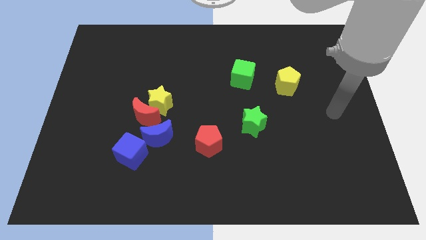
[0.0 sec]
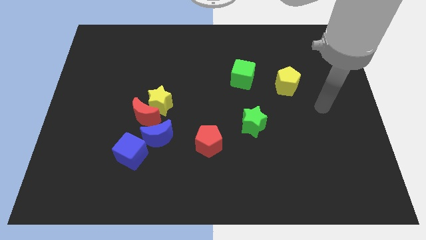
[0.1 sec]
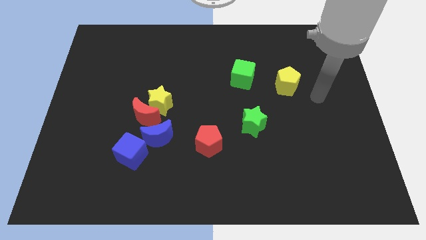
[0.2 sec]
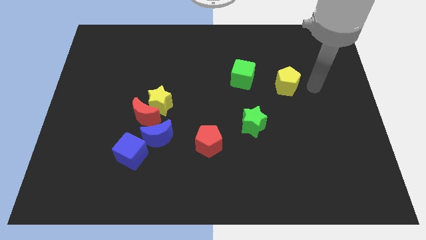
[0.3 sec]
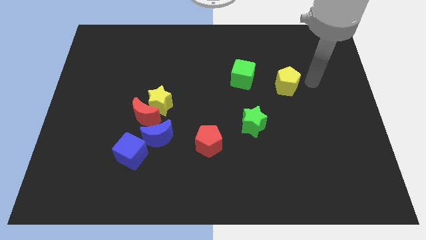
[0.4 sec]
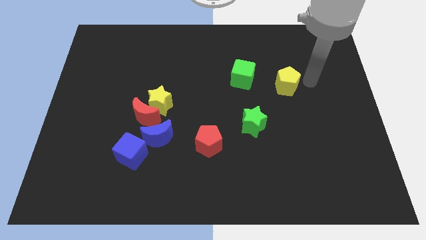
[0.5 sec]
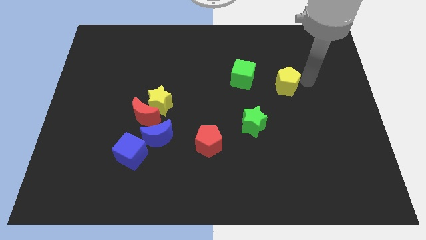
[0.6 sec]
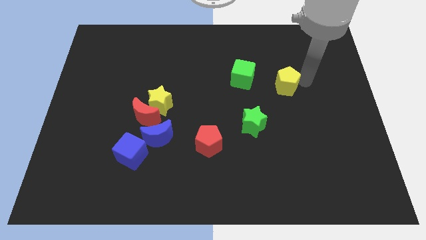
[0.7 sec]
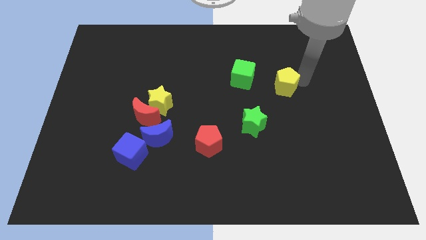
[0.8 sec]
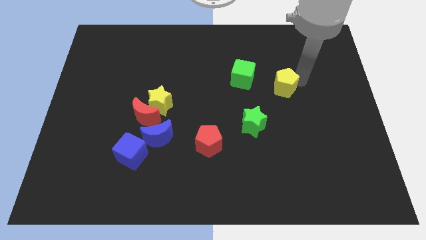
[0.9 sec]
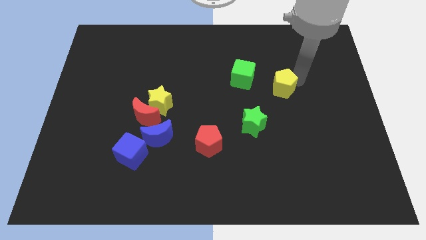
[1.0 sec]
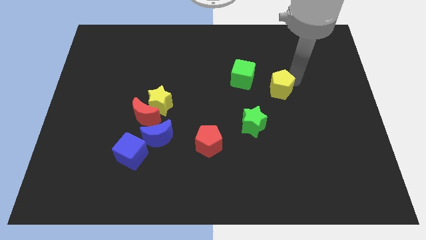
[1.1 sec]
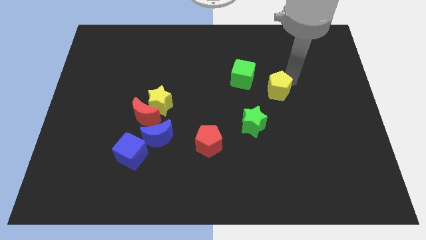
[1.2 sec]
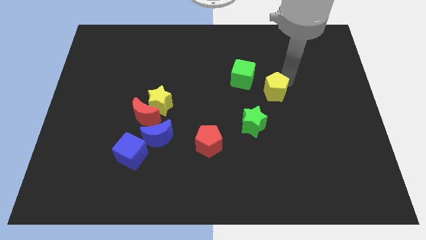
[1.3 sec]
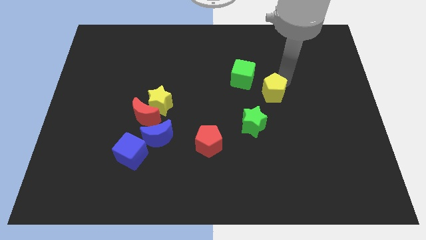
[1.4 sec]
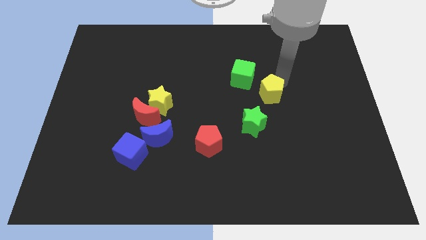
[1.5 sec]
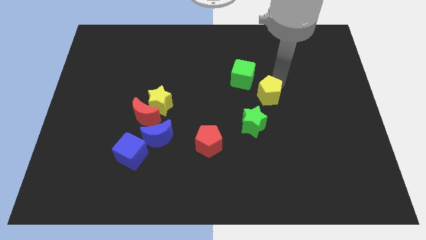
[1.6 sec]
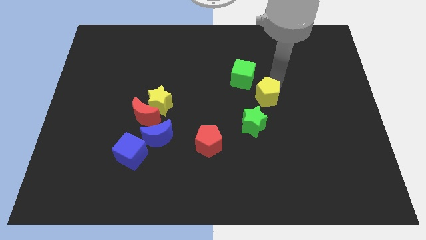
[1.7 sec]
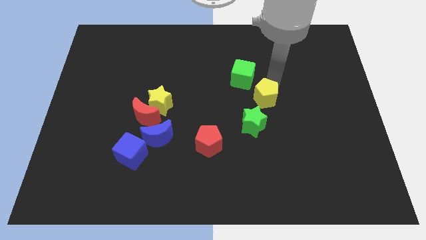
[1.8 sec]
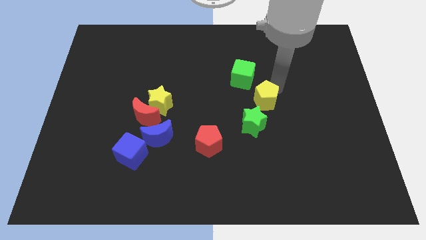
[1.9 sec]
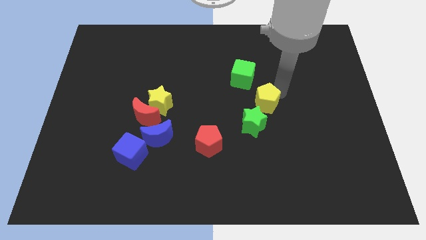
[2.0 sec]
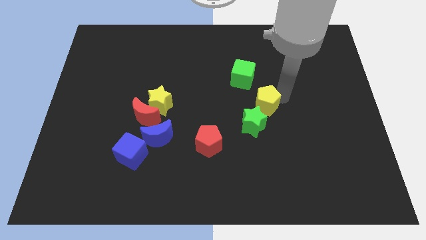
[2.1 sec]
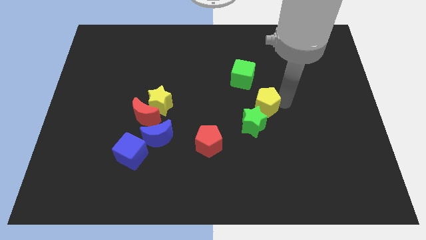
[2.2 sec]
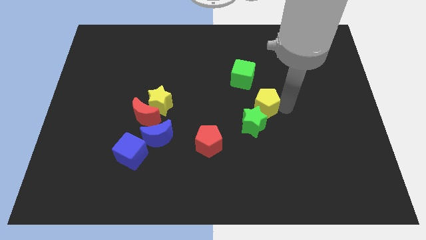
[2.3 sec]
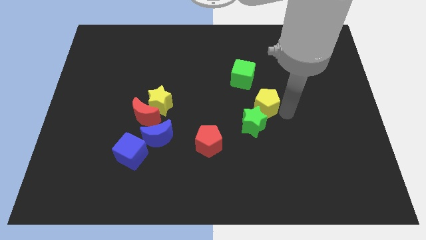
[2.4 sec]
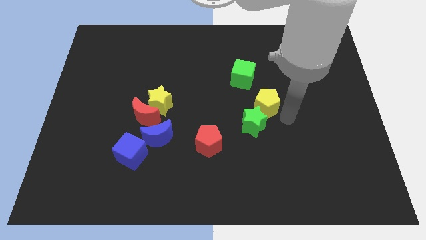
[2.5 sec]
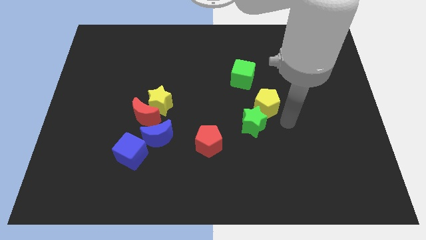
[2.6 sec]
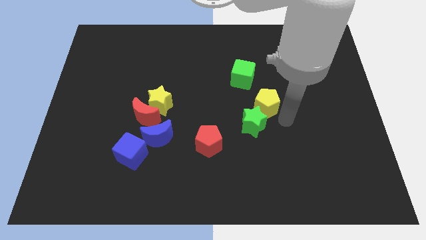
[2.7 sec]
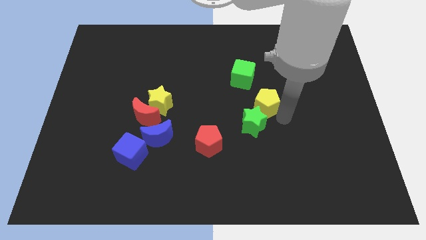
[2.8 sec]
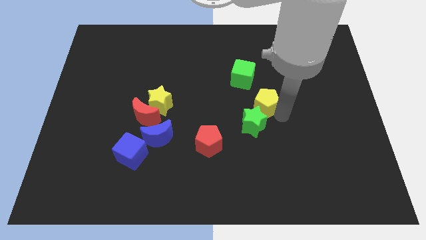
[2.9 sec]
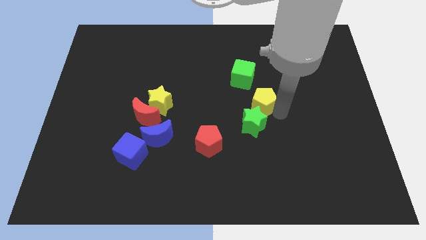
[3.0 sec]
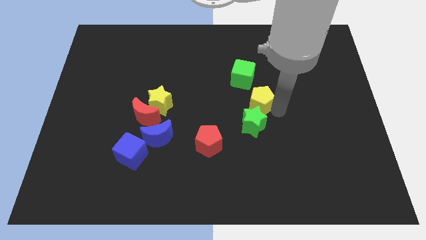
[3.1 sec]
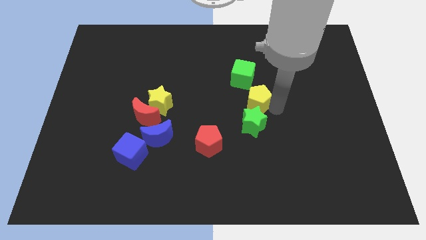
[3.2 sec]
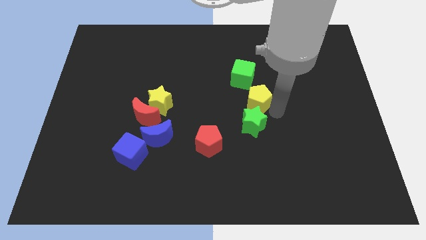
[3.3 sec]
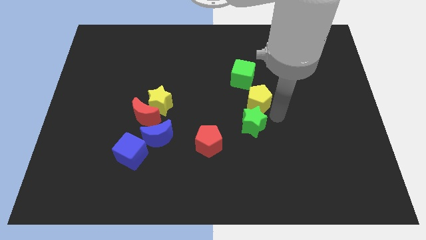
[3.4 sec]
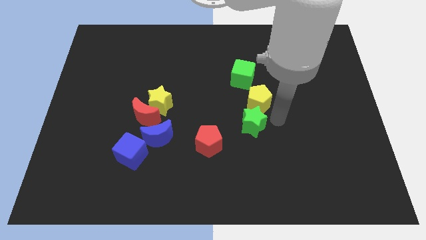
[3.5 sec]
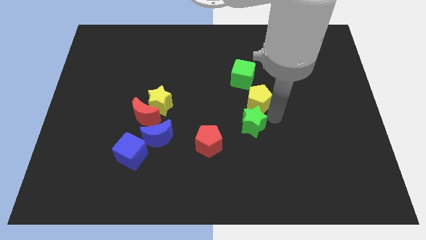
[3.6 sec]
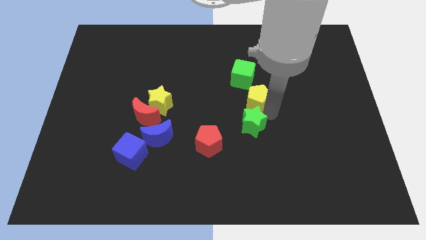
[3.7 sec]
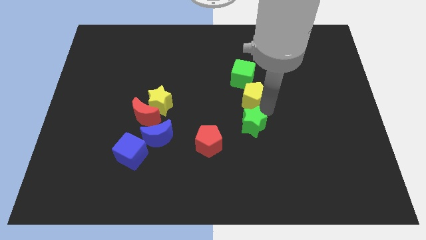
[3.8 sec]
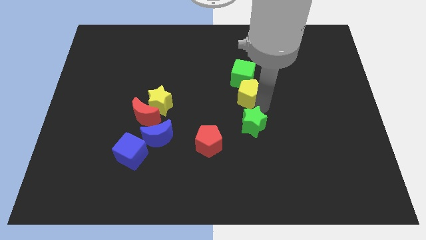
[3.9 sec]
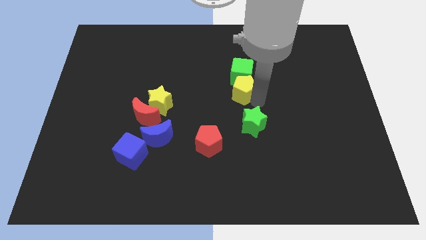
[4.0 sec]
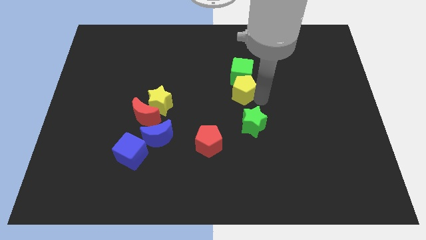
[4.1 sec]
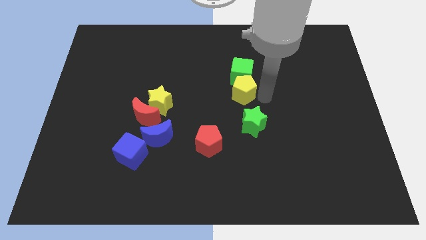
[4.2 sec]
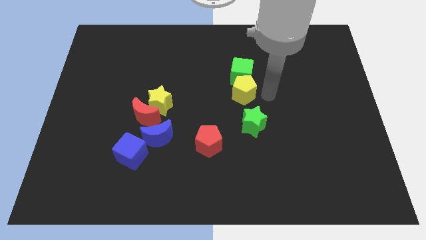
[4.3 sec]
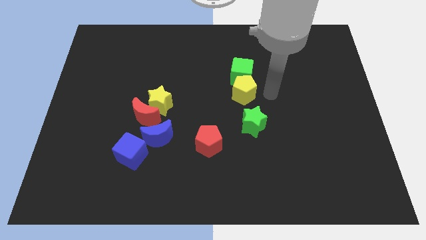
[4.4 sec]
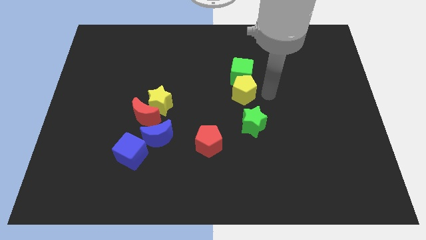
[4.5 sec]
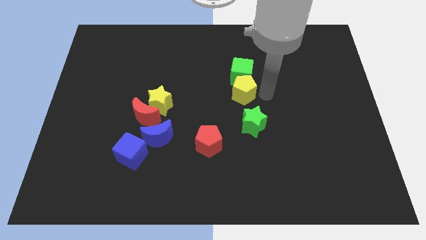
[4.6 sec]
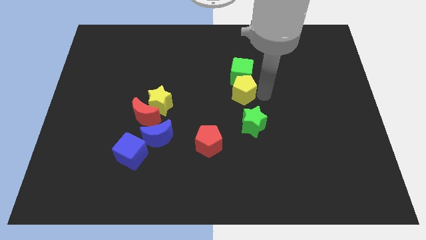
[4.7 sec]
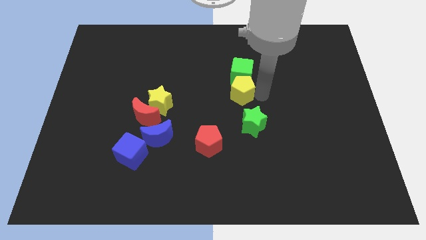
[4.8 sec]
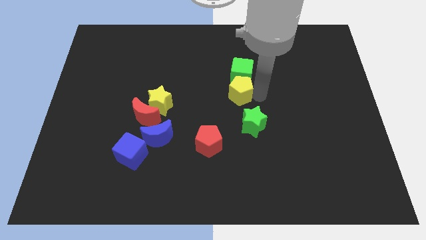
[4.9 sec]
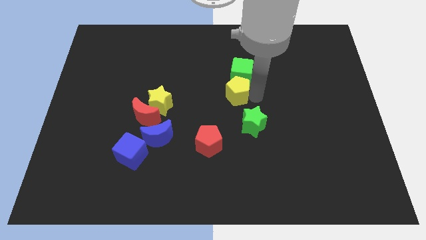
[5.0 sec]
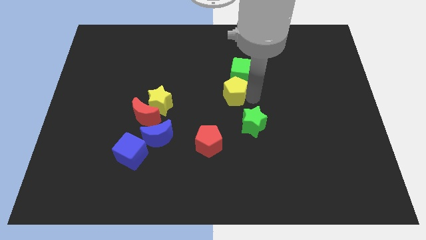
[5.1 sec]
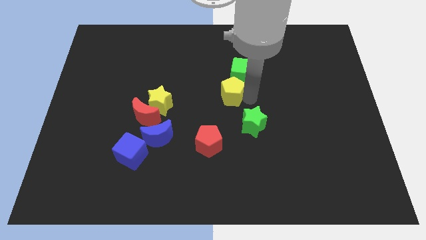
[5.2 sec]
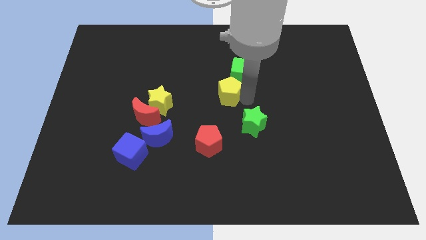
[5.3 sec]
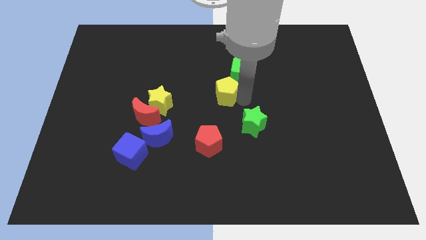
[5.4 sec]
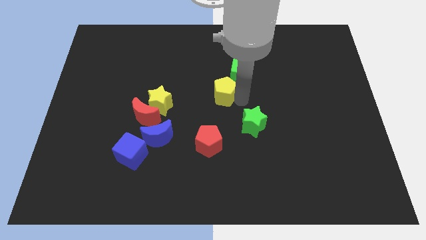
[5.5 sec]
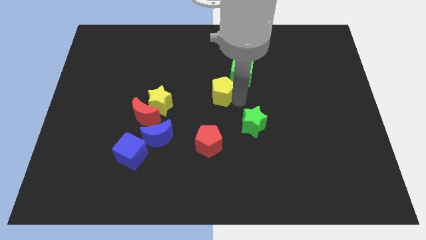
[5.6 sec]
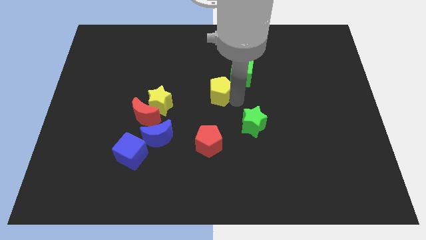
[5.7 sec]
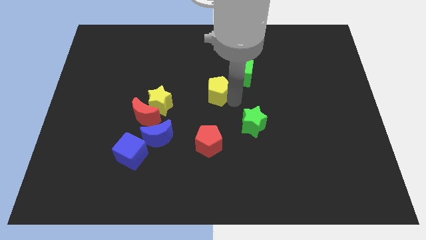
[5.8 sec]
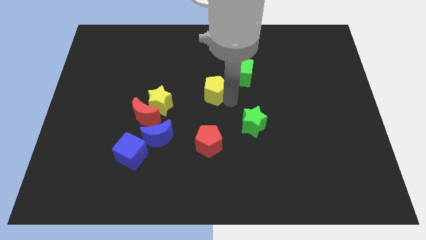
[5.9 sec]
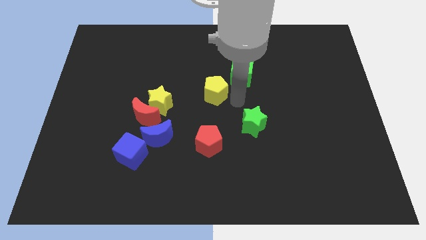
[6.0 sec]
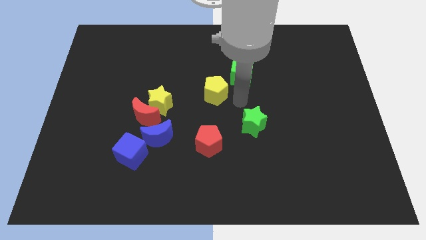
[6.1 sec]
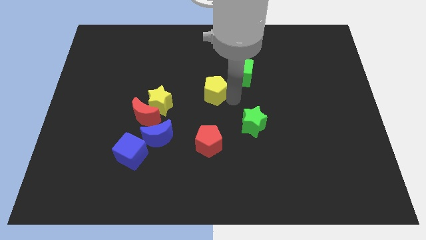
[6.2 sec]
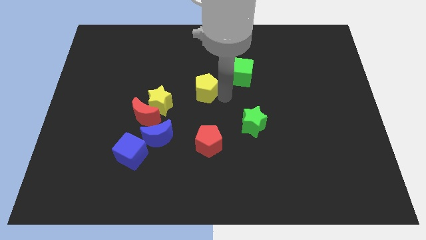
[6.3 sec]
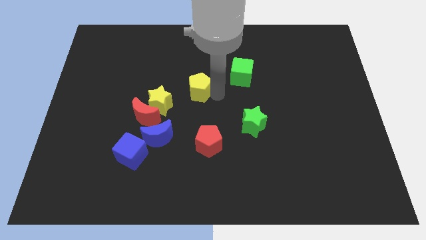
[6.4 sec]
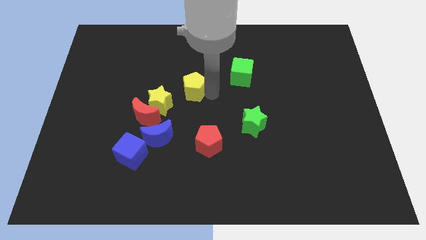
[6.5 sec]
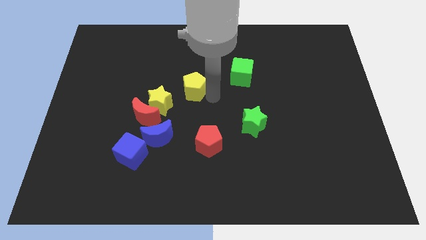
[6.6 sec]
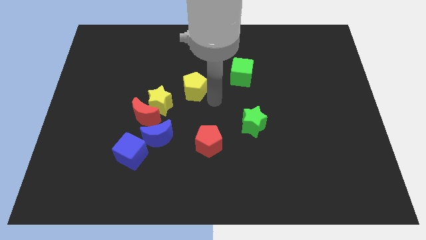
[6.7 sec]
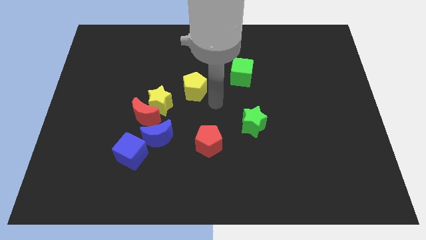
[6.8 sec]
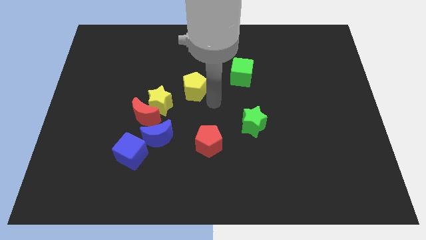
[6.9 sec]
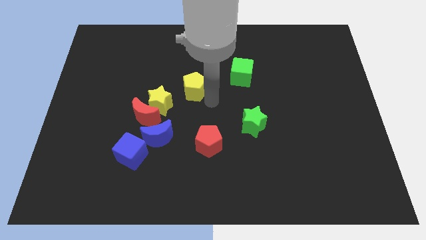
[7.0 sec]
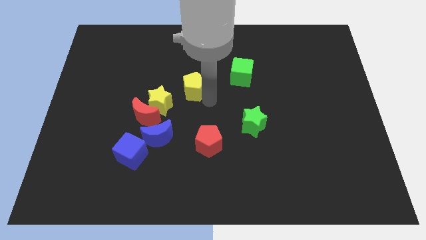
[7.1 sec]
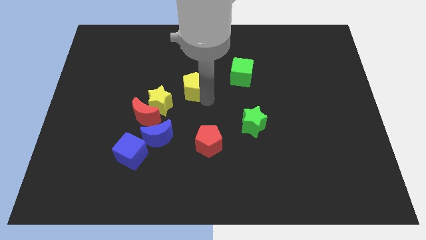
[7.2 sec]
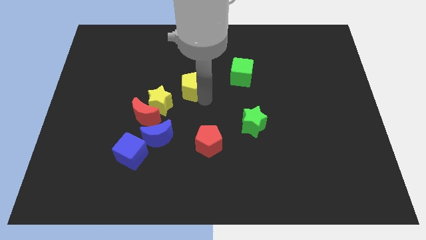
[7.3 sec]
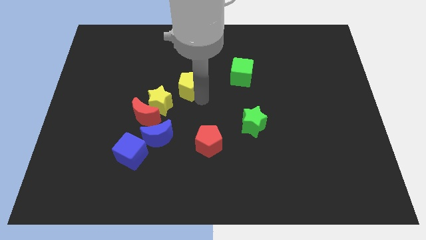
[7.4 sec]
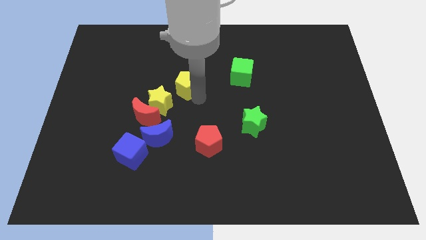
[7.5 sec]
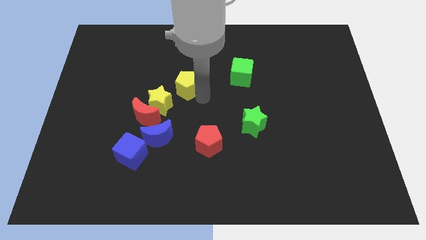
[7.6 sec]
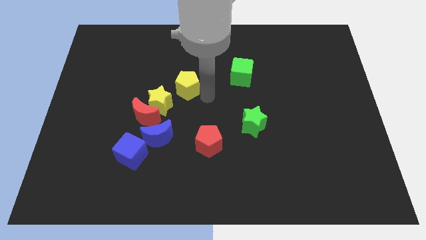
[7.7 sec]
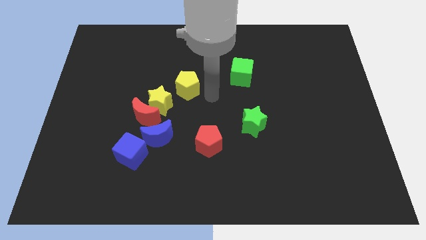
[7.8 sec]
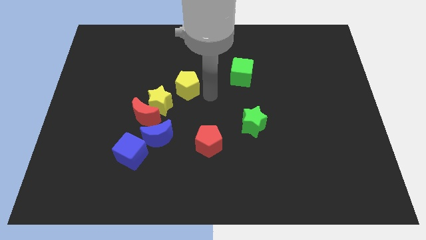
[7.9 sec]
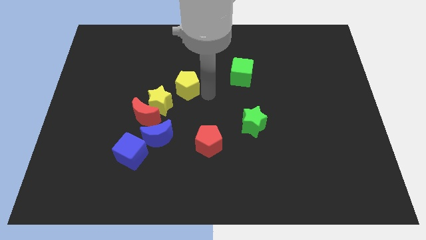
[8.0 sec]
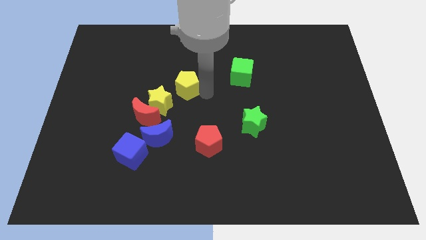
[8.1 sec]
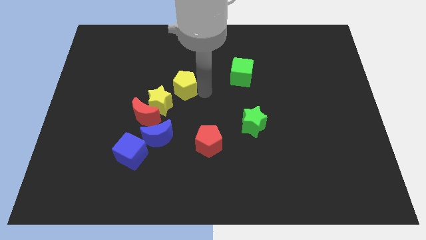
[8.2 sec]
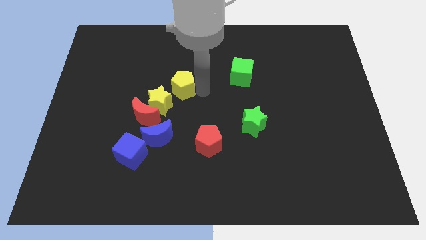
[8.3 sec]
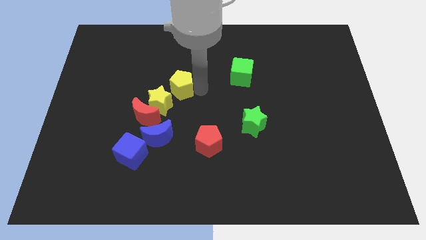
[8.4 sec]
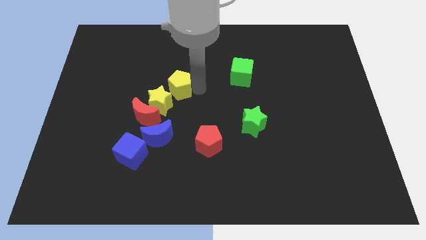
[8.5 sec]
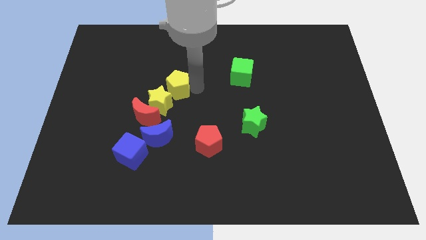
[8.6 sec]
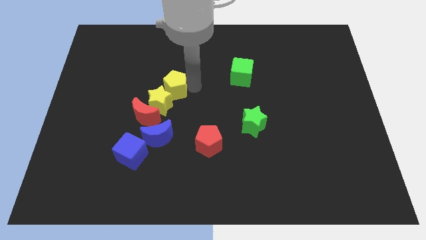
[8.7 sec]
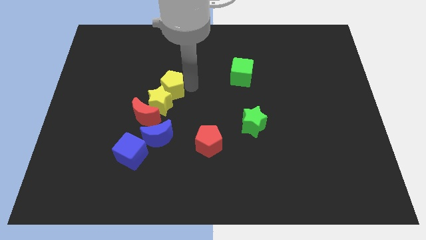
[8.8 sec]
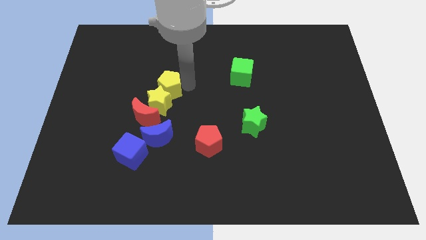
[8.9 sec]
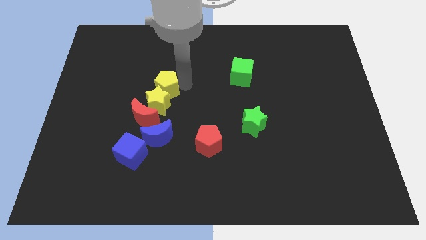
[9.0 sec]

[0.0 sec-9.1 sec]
move the yellow pentagon to the top side of the red moon
